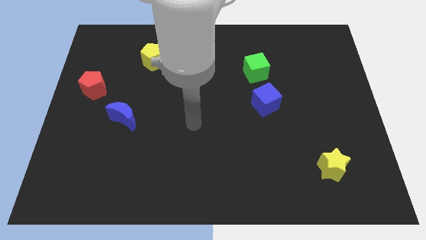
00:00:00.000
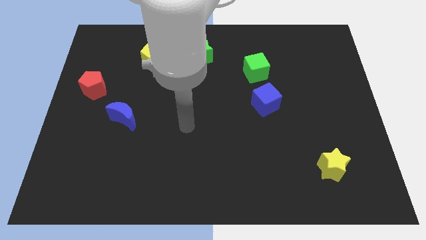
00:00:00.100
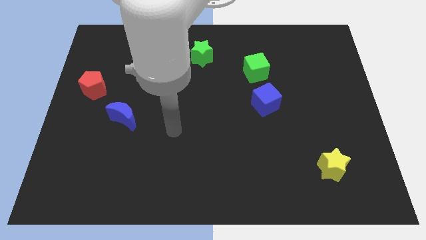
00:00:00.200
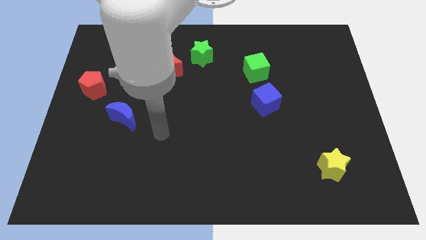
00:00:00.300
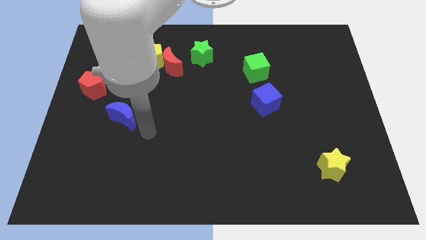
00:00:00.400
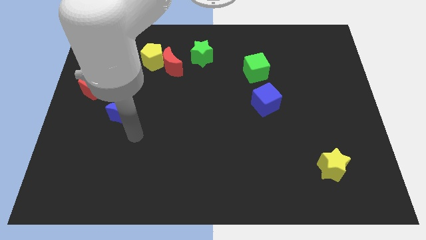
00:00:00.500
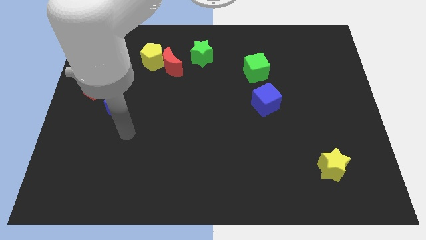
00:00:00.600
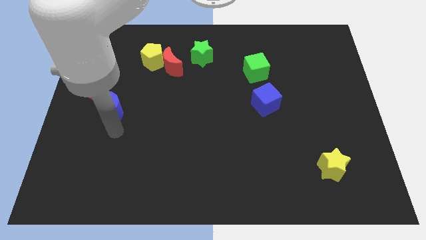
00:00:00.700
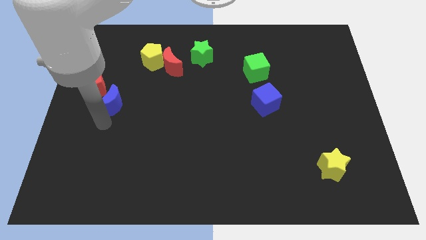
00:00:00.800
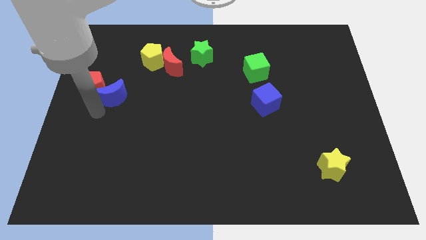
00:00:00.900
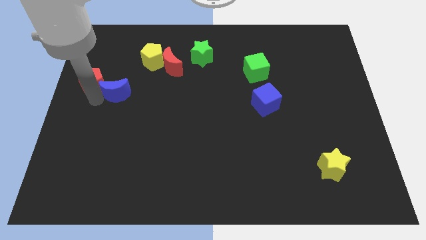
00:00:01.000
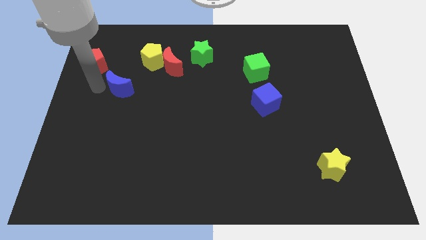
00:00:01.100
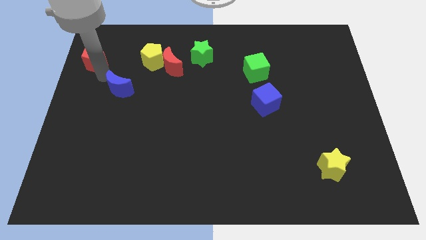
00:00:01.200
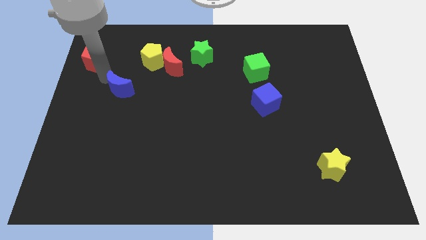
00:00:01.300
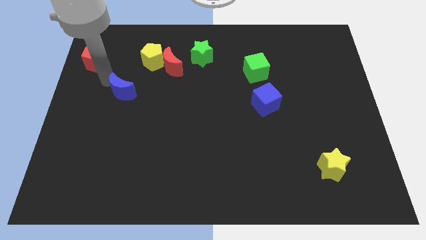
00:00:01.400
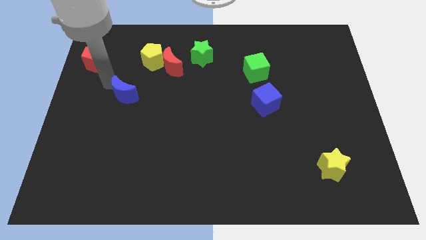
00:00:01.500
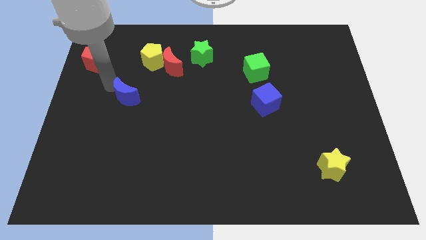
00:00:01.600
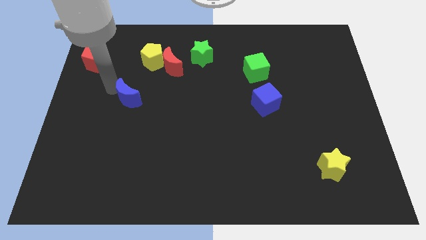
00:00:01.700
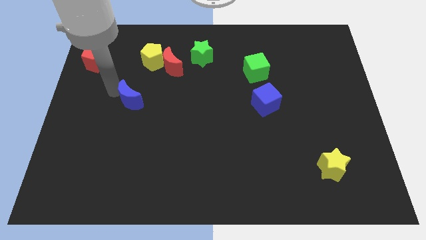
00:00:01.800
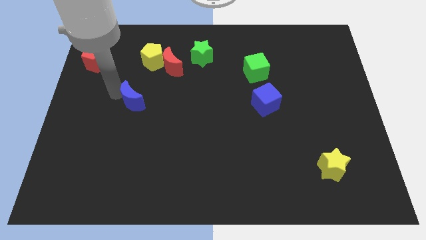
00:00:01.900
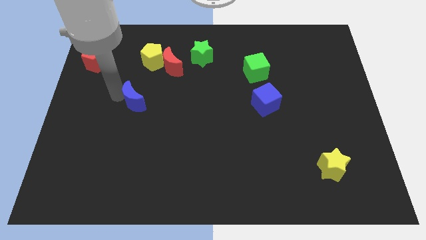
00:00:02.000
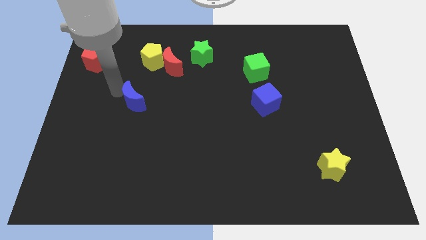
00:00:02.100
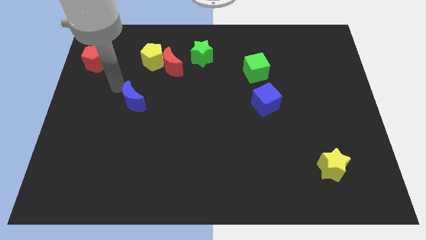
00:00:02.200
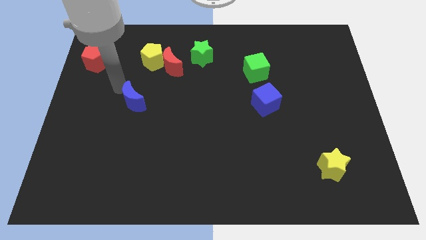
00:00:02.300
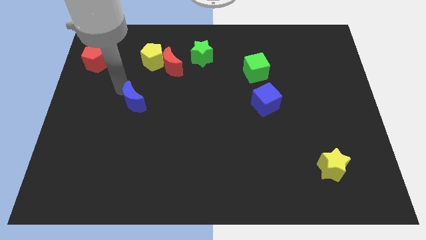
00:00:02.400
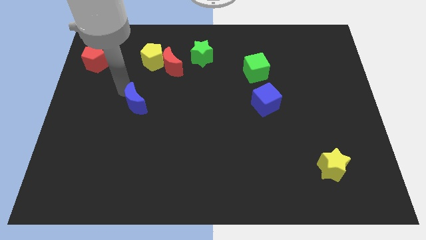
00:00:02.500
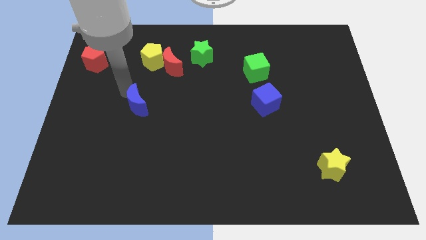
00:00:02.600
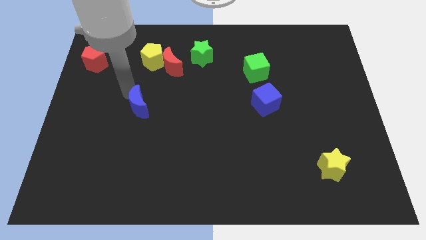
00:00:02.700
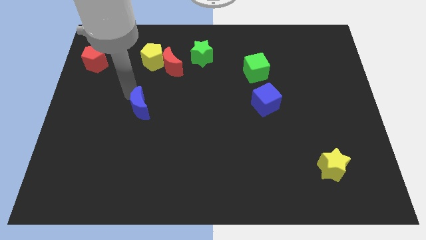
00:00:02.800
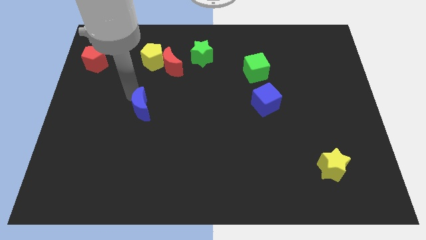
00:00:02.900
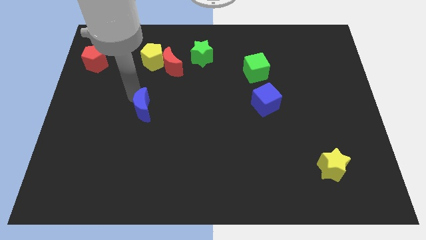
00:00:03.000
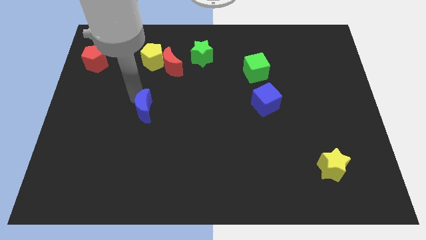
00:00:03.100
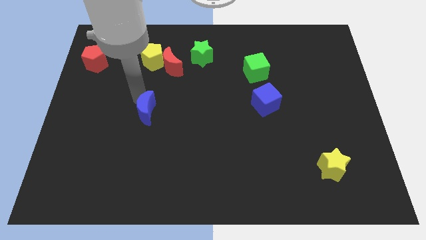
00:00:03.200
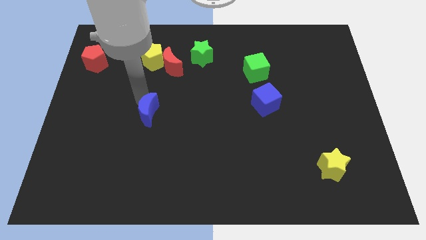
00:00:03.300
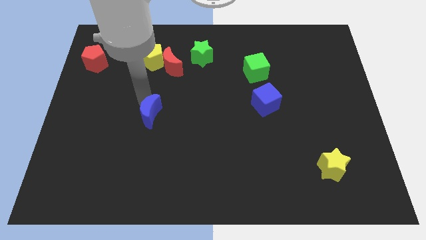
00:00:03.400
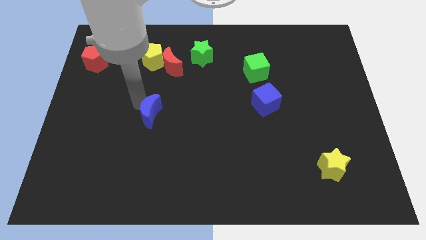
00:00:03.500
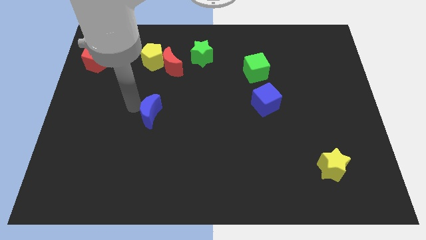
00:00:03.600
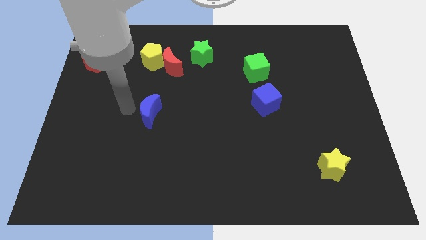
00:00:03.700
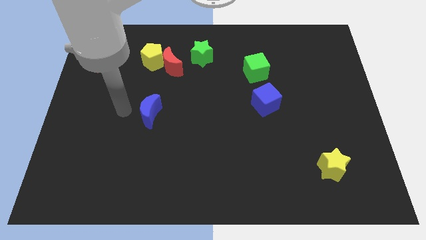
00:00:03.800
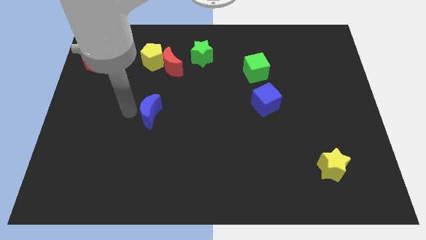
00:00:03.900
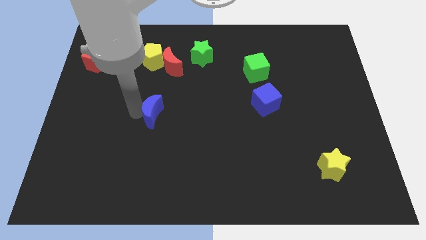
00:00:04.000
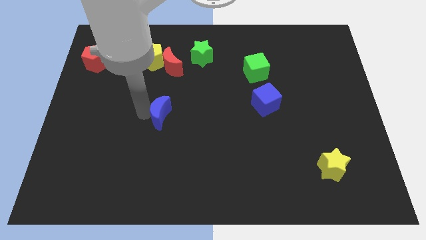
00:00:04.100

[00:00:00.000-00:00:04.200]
push the blue moon to the right a little

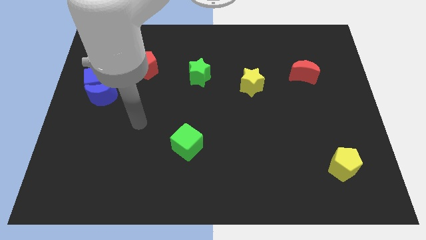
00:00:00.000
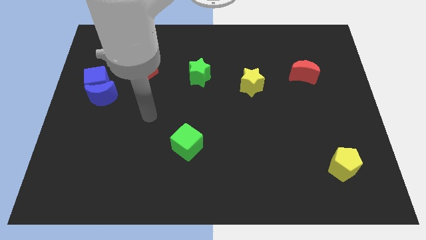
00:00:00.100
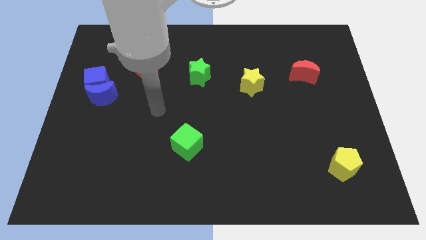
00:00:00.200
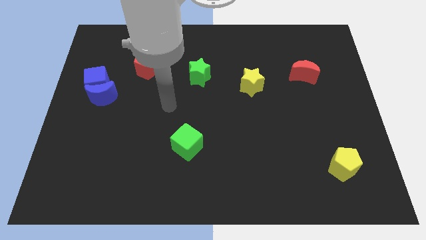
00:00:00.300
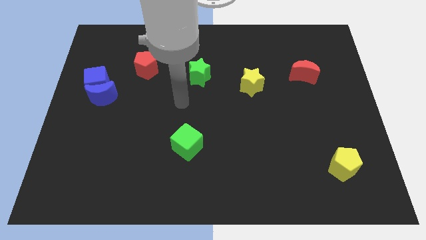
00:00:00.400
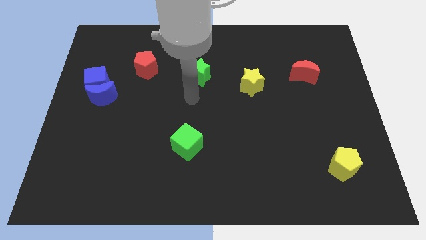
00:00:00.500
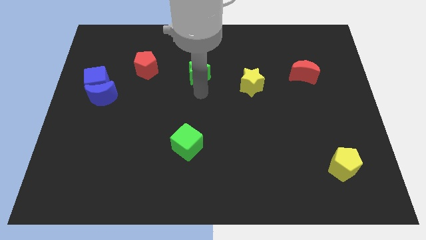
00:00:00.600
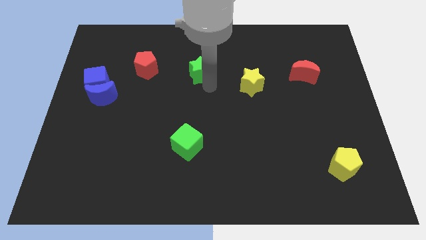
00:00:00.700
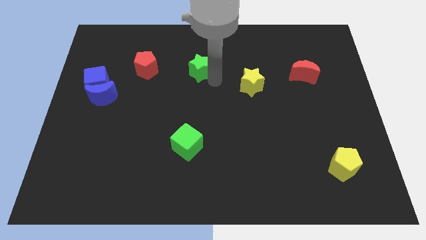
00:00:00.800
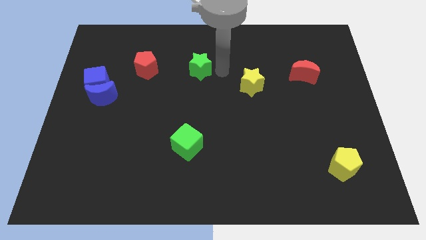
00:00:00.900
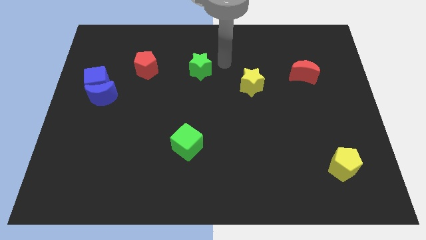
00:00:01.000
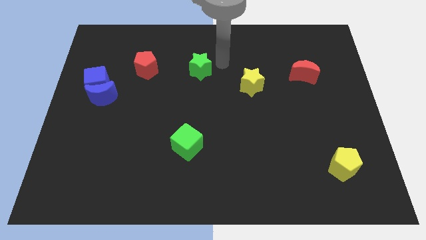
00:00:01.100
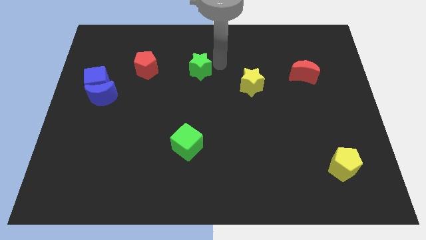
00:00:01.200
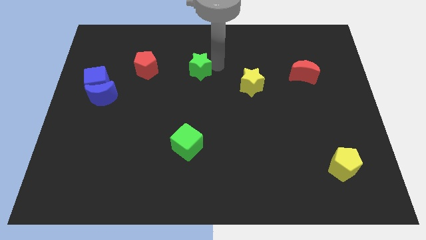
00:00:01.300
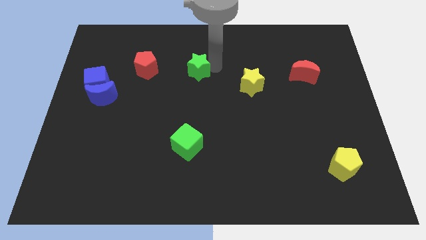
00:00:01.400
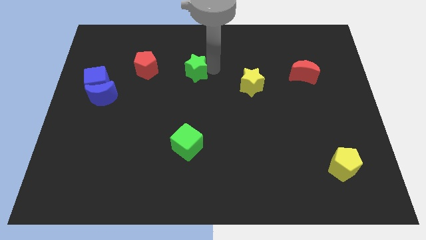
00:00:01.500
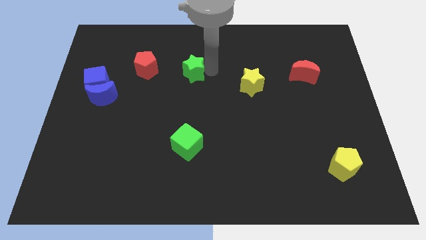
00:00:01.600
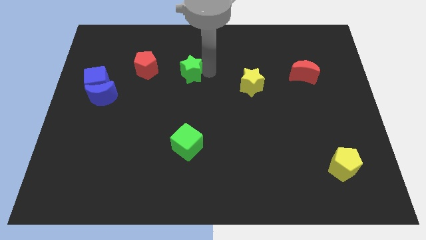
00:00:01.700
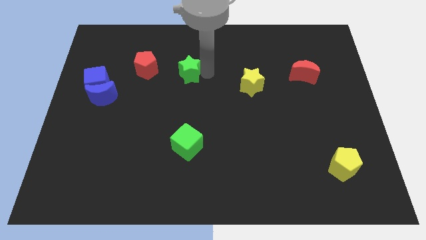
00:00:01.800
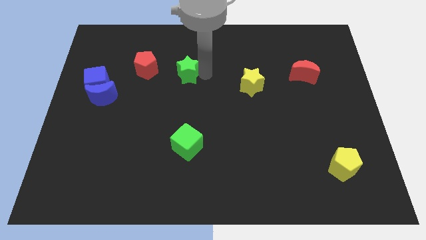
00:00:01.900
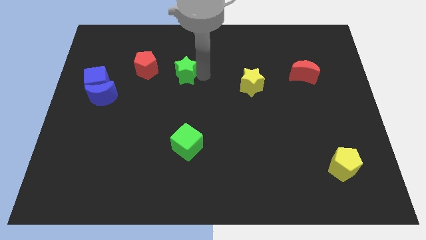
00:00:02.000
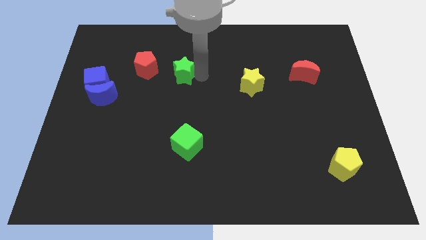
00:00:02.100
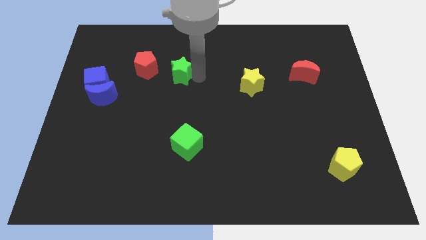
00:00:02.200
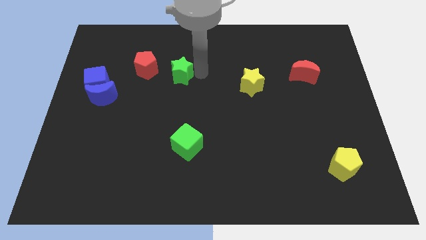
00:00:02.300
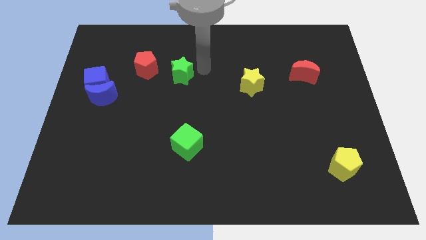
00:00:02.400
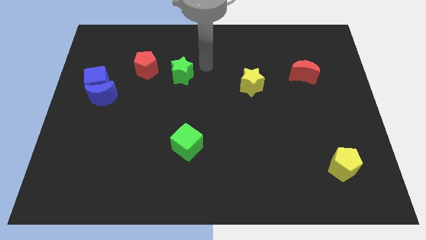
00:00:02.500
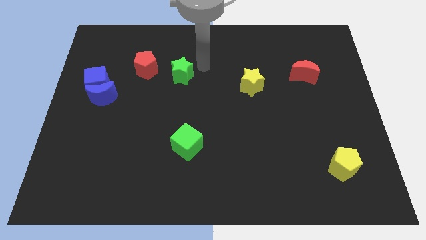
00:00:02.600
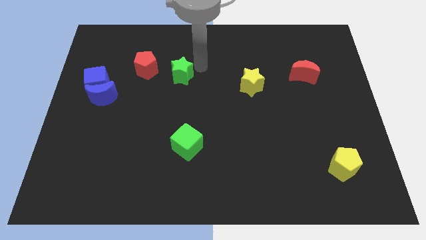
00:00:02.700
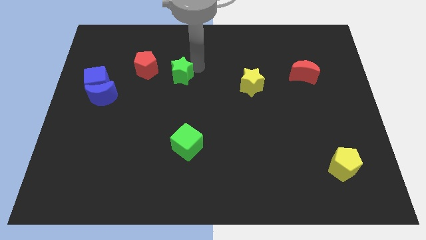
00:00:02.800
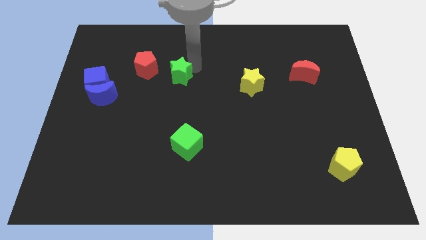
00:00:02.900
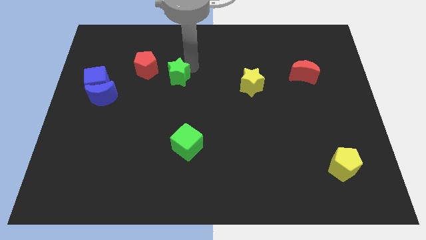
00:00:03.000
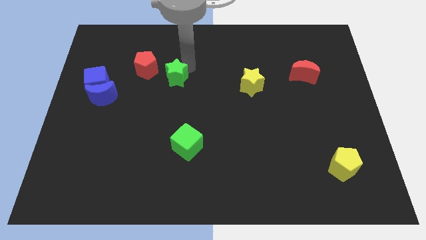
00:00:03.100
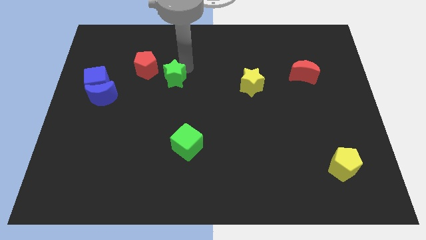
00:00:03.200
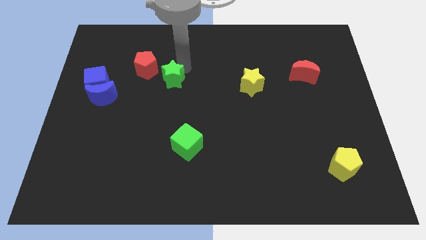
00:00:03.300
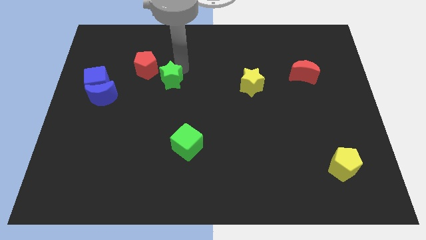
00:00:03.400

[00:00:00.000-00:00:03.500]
move the green star to the left slightly

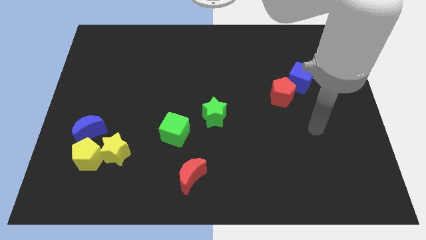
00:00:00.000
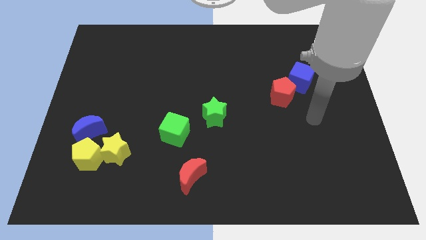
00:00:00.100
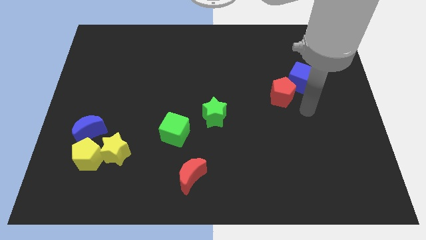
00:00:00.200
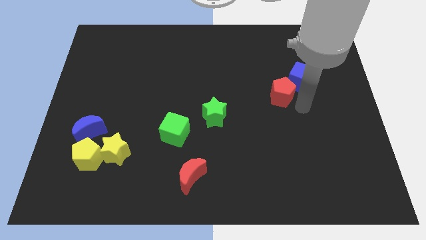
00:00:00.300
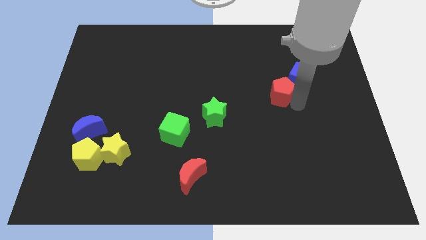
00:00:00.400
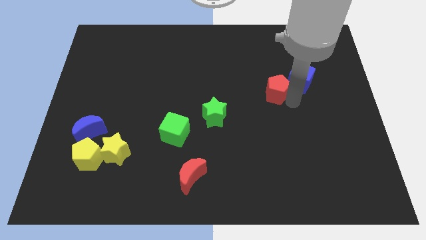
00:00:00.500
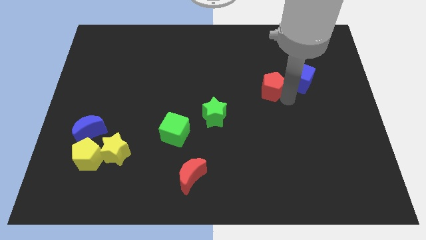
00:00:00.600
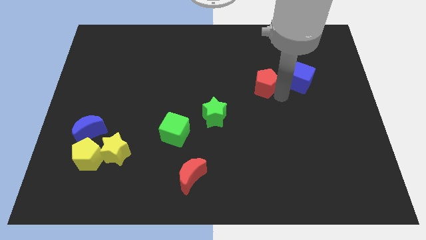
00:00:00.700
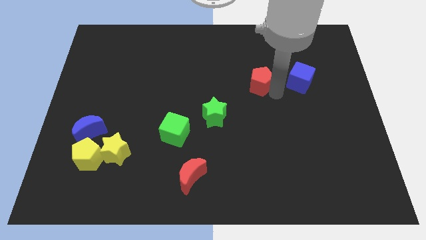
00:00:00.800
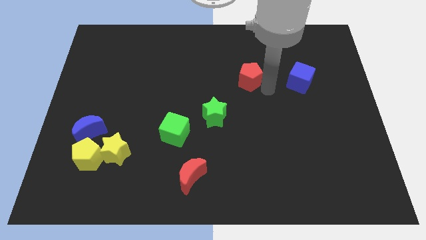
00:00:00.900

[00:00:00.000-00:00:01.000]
move the red pentagon upwards and to the left a bit
